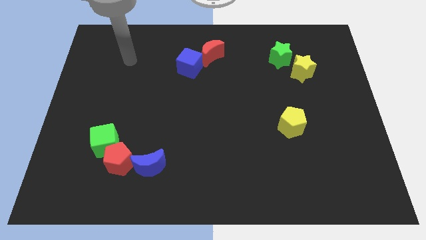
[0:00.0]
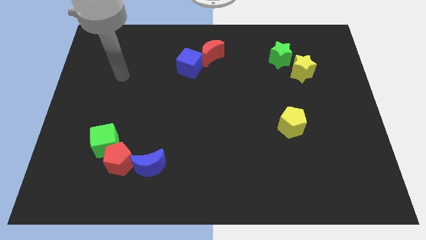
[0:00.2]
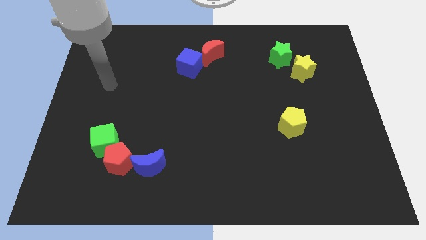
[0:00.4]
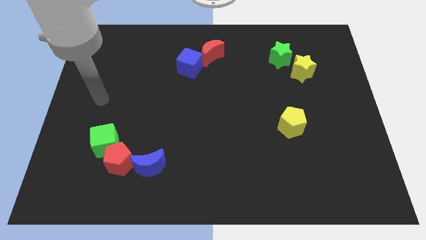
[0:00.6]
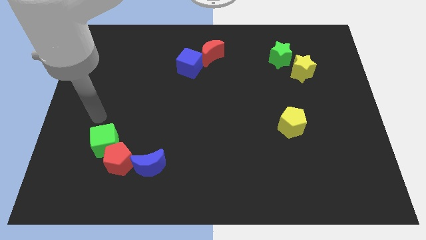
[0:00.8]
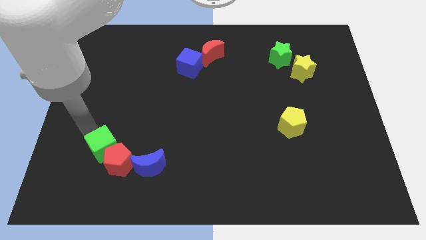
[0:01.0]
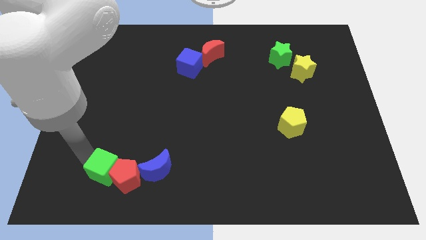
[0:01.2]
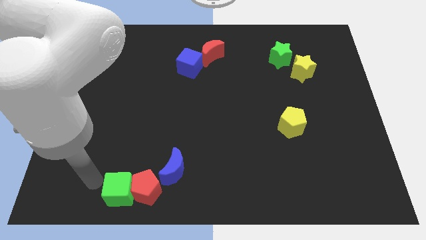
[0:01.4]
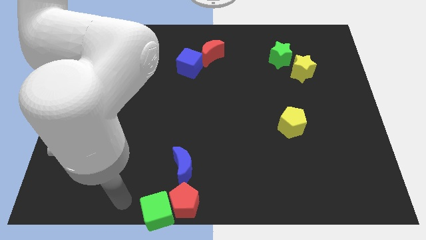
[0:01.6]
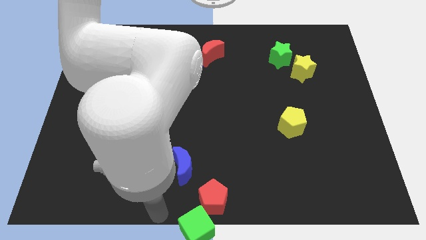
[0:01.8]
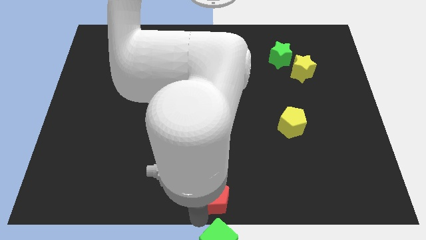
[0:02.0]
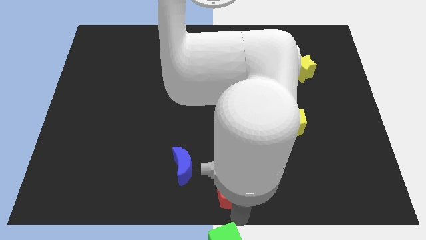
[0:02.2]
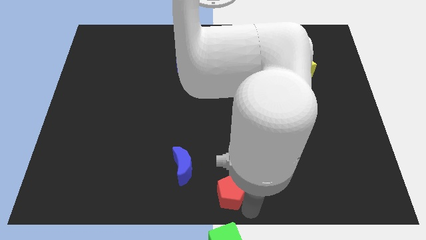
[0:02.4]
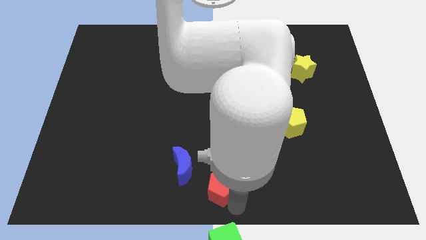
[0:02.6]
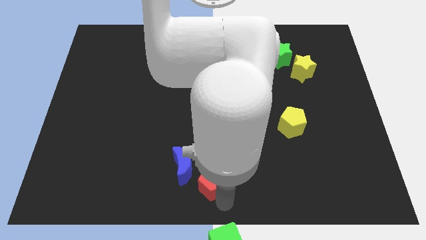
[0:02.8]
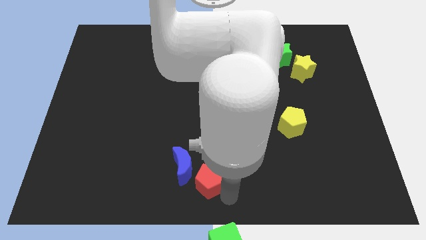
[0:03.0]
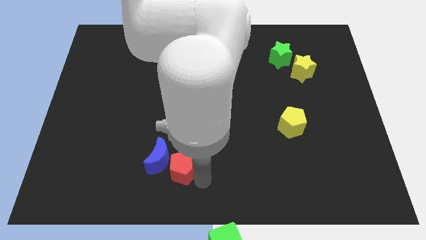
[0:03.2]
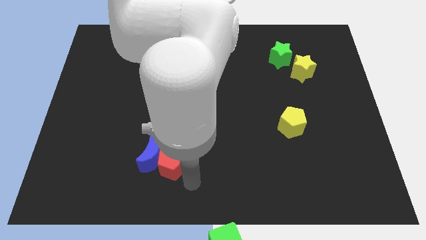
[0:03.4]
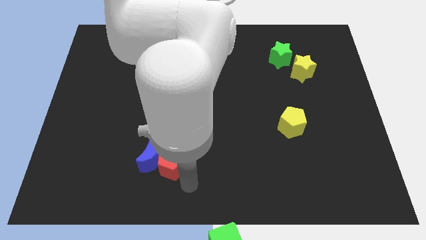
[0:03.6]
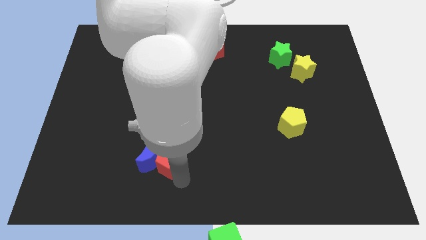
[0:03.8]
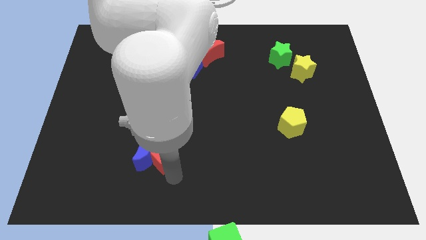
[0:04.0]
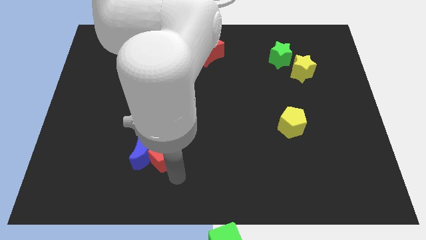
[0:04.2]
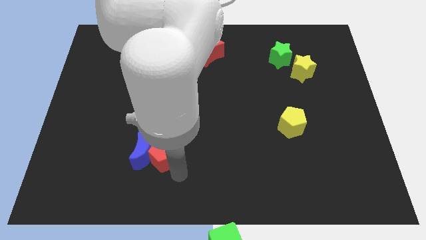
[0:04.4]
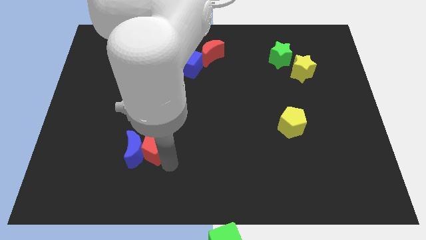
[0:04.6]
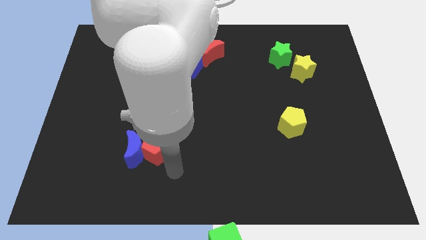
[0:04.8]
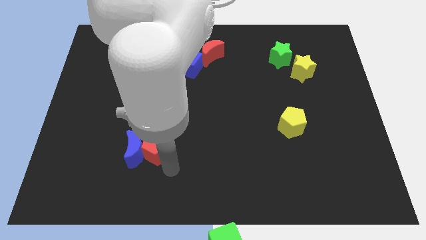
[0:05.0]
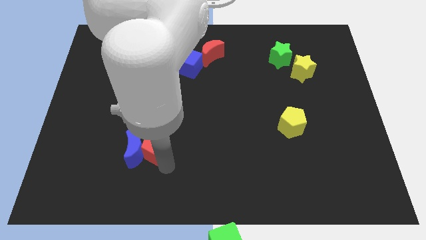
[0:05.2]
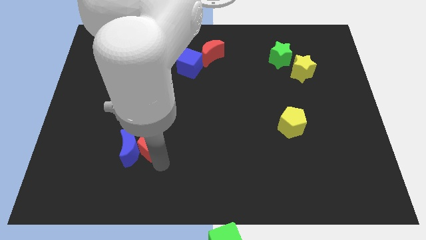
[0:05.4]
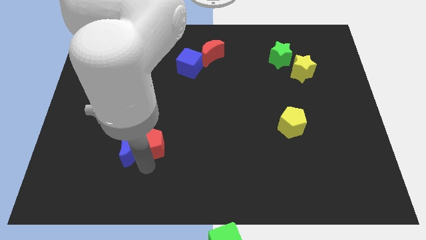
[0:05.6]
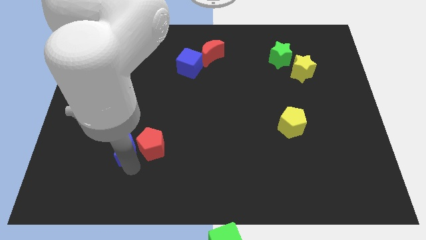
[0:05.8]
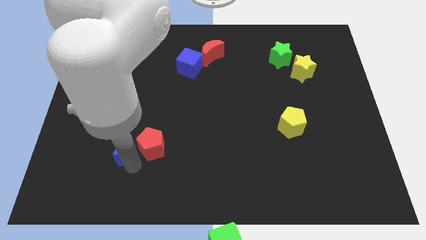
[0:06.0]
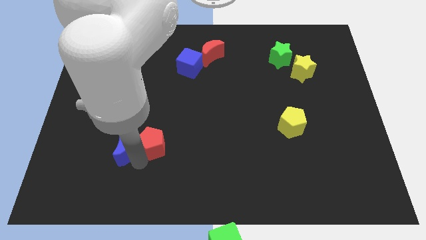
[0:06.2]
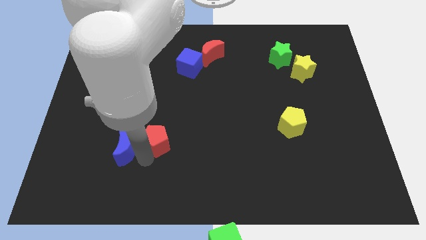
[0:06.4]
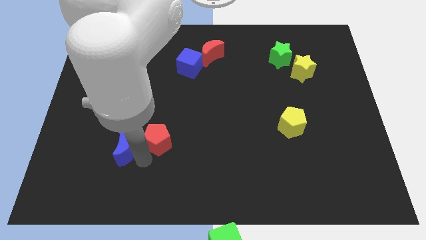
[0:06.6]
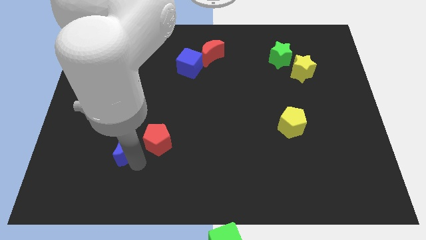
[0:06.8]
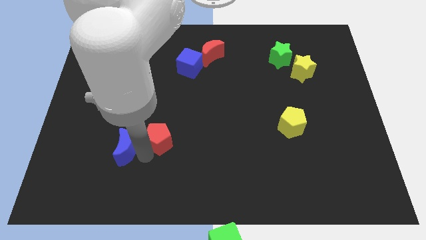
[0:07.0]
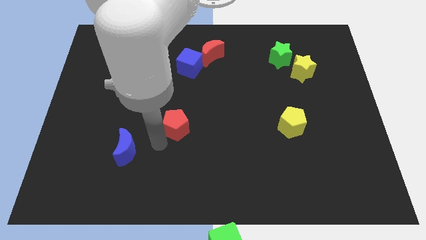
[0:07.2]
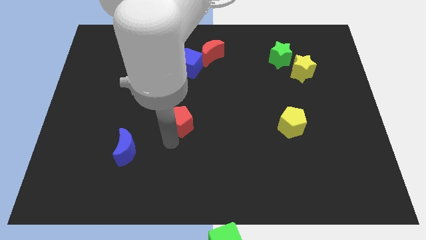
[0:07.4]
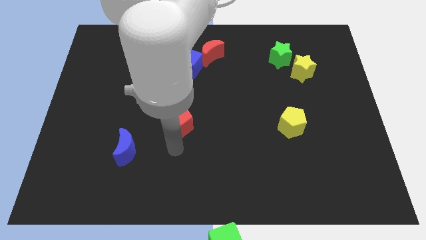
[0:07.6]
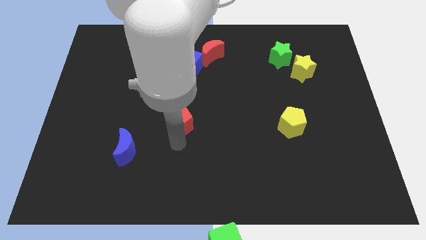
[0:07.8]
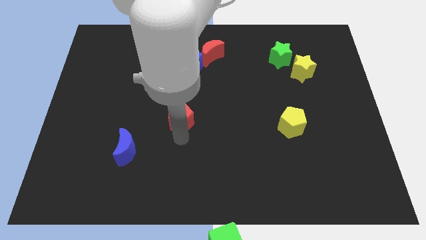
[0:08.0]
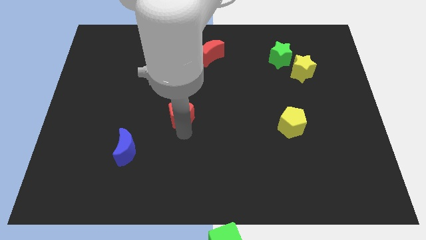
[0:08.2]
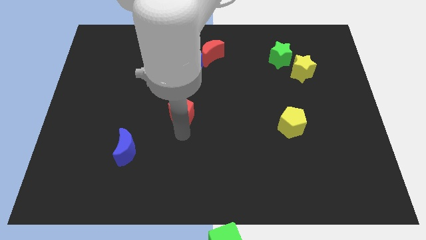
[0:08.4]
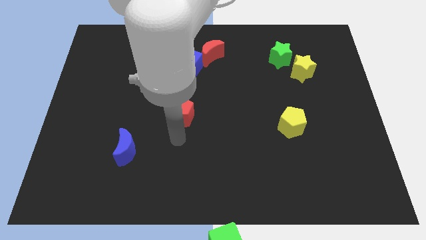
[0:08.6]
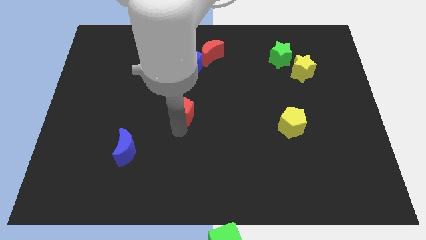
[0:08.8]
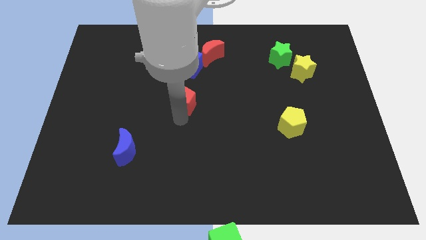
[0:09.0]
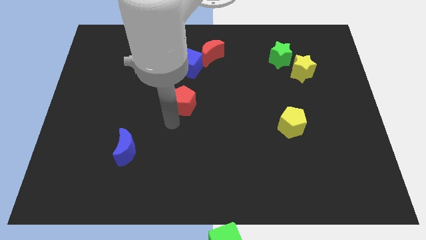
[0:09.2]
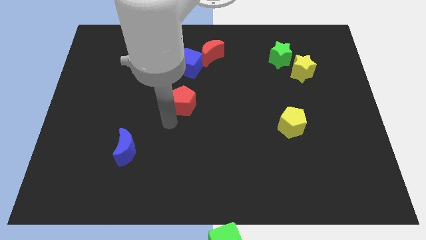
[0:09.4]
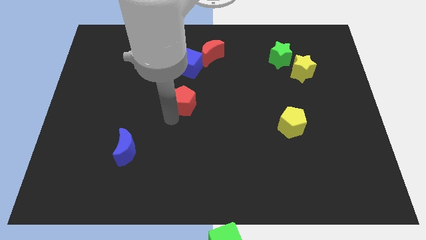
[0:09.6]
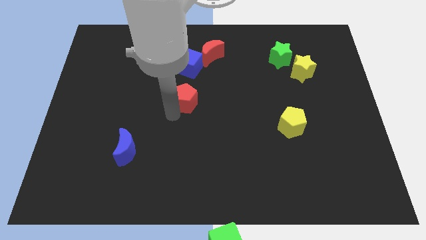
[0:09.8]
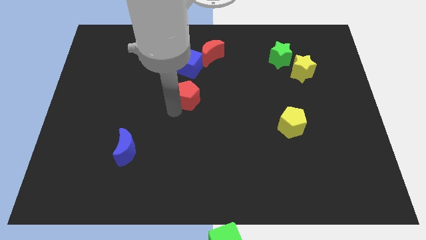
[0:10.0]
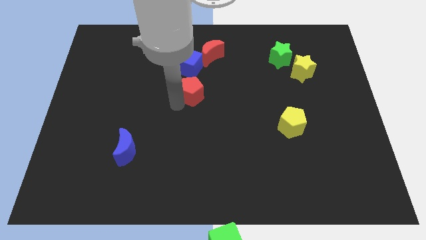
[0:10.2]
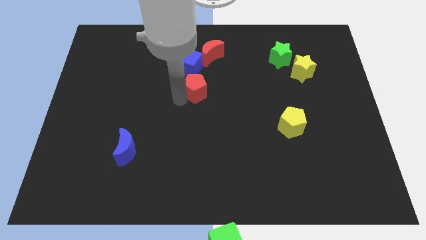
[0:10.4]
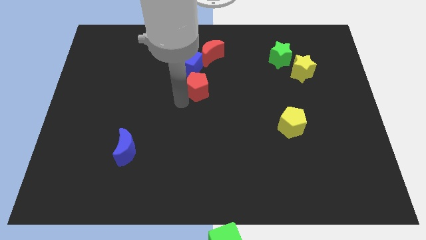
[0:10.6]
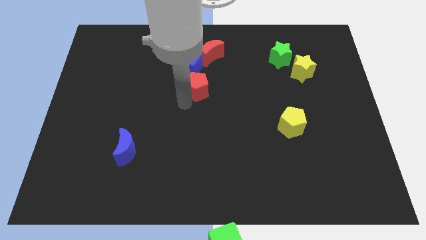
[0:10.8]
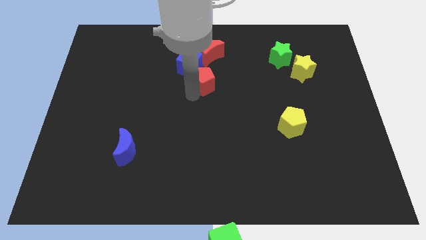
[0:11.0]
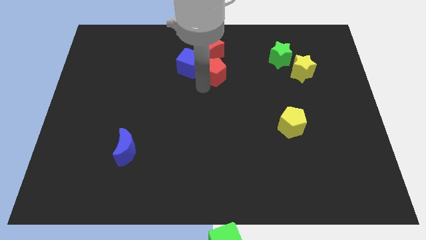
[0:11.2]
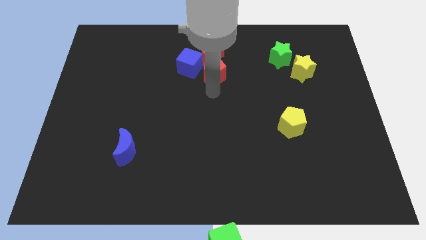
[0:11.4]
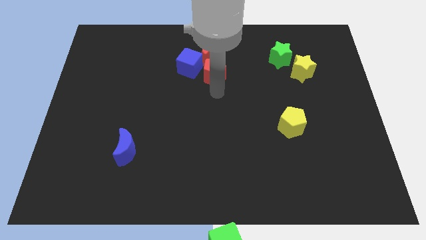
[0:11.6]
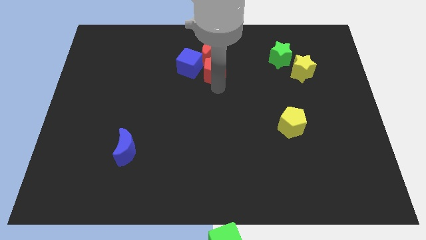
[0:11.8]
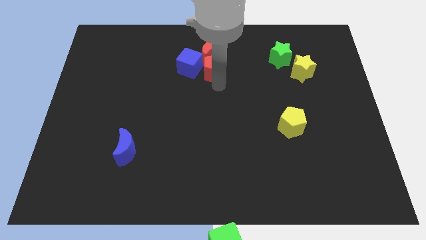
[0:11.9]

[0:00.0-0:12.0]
put the red pentagon towards the red moon

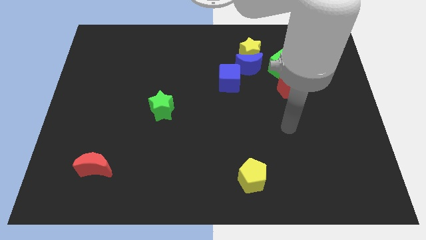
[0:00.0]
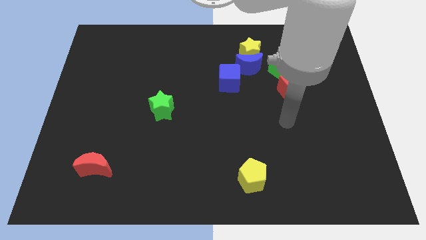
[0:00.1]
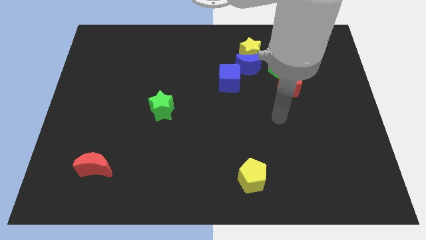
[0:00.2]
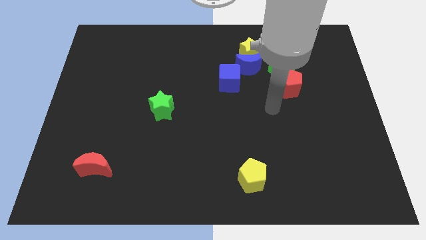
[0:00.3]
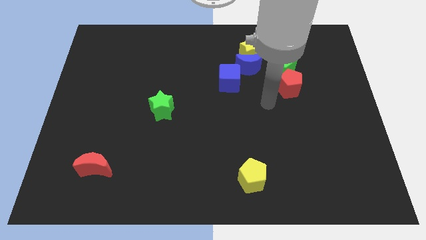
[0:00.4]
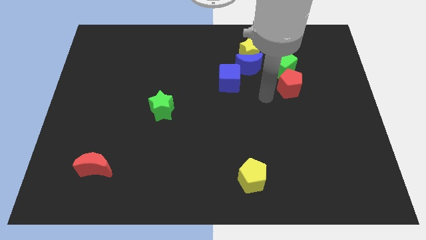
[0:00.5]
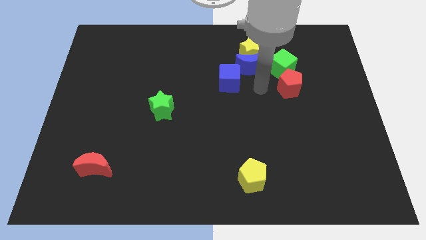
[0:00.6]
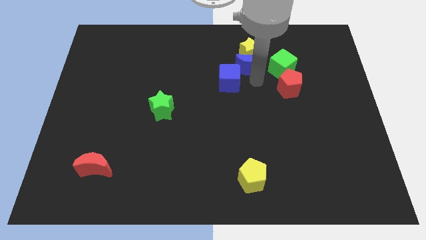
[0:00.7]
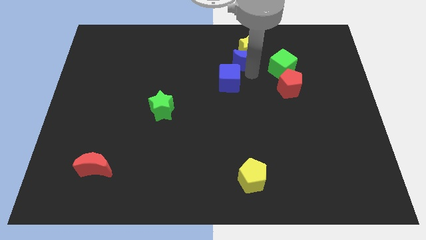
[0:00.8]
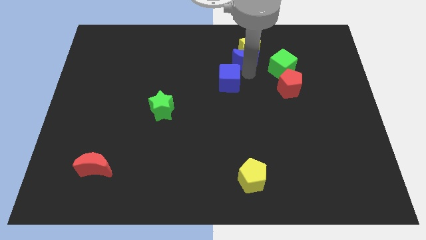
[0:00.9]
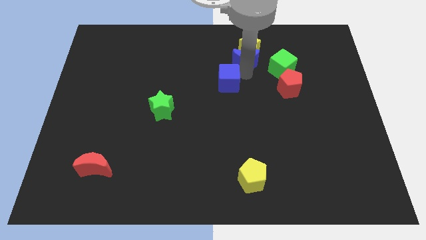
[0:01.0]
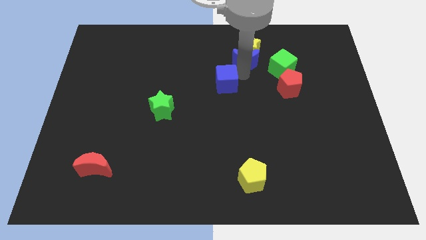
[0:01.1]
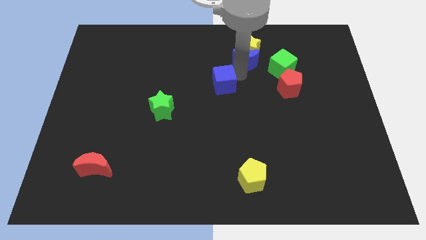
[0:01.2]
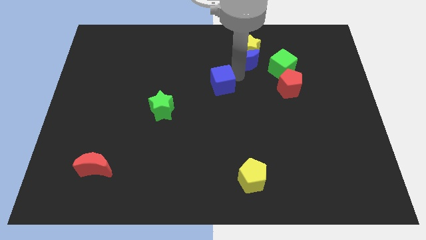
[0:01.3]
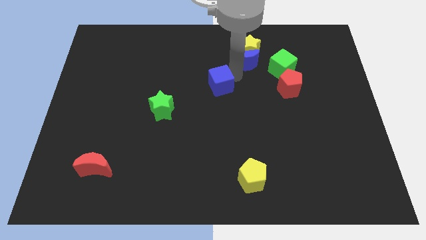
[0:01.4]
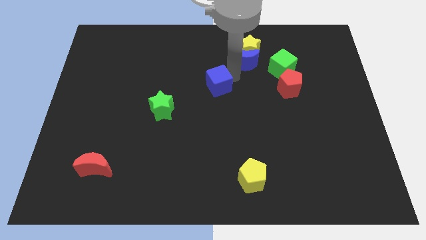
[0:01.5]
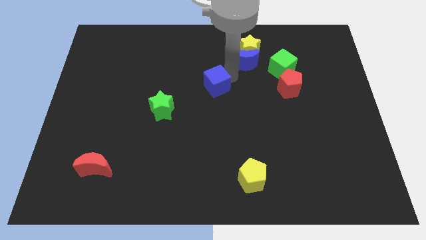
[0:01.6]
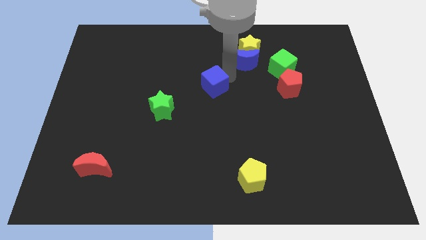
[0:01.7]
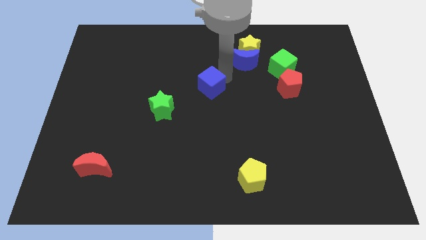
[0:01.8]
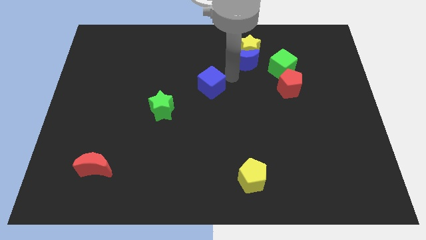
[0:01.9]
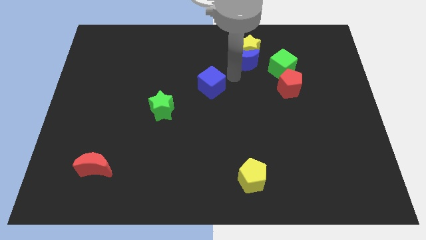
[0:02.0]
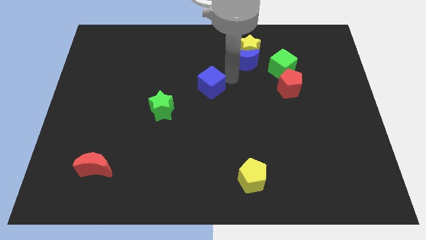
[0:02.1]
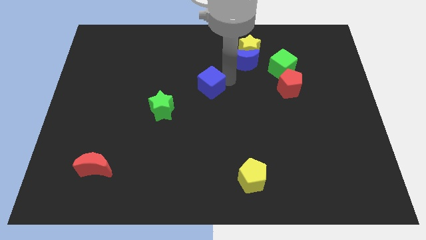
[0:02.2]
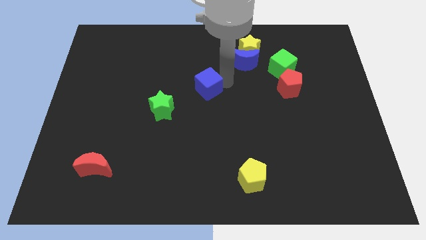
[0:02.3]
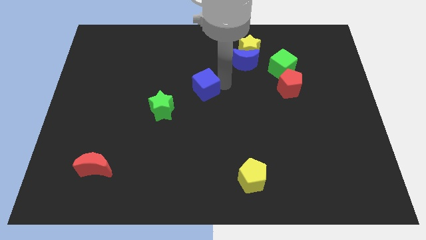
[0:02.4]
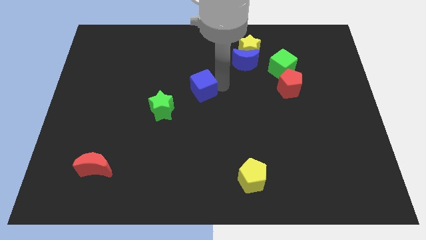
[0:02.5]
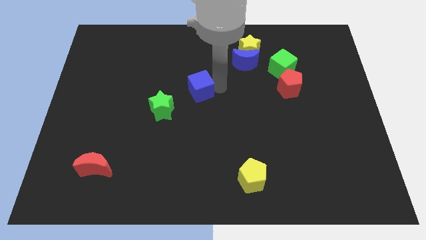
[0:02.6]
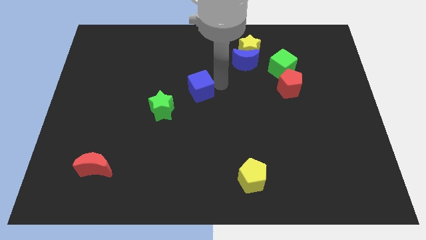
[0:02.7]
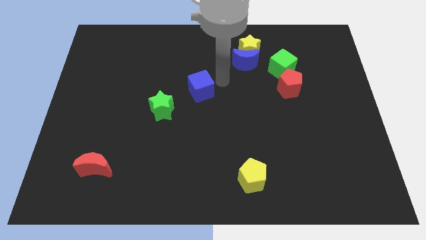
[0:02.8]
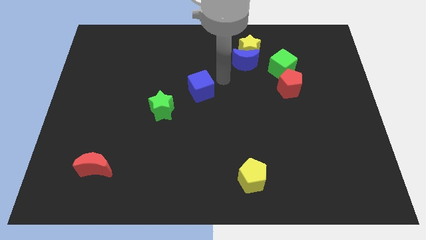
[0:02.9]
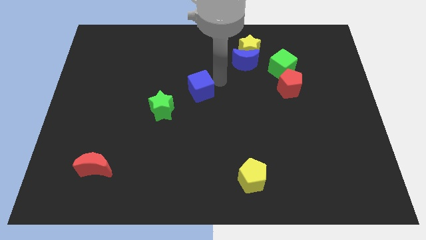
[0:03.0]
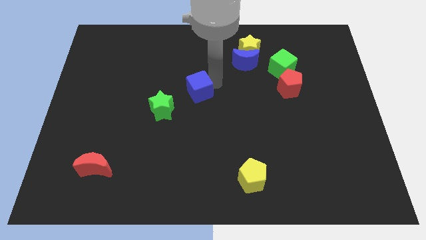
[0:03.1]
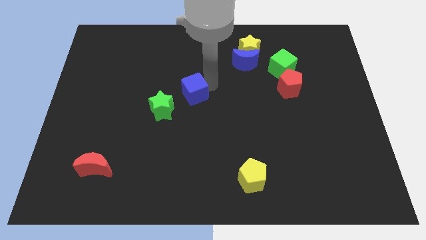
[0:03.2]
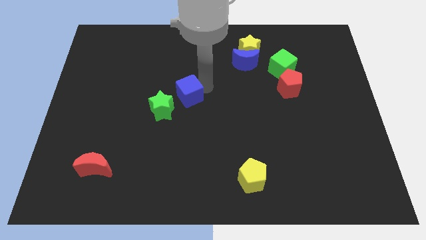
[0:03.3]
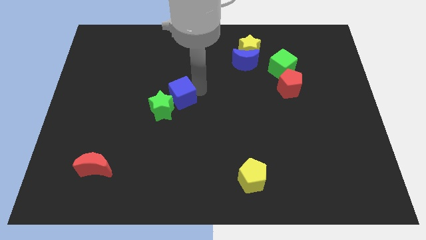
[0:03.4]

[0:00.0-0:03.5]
push the blue cube towards the green star
